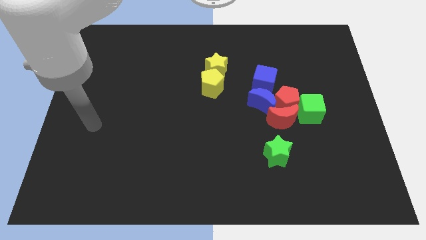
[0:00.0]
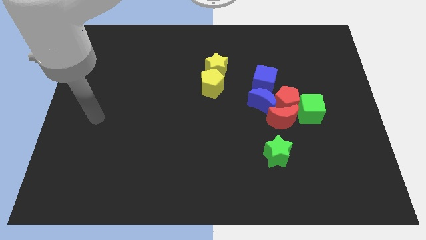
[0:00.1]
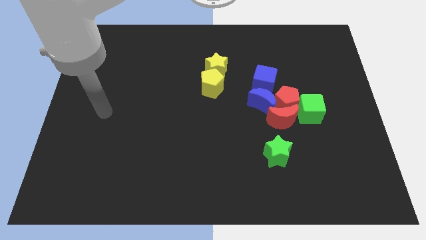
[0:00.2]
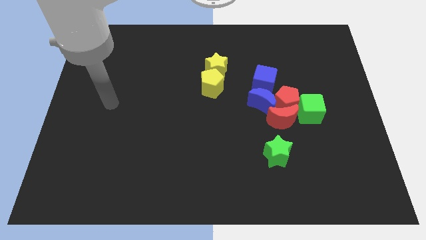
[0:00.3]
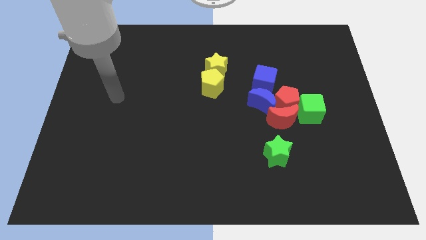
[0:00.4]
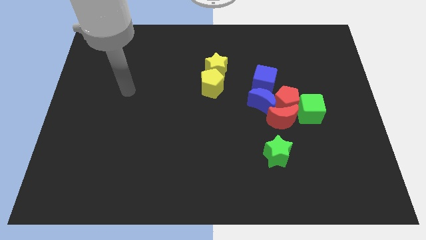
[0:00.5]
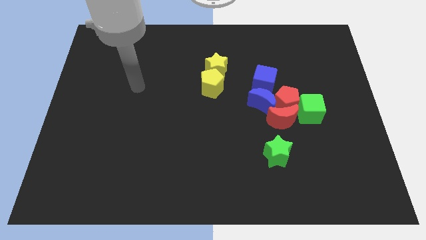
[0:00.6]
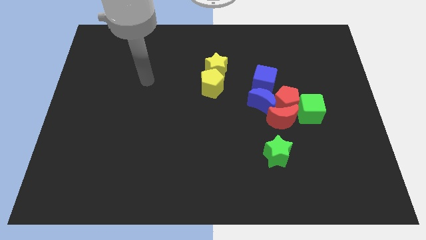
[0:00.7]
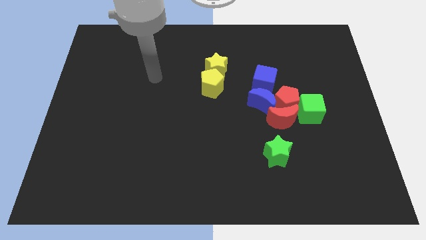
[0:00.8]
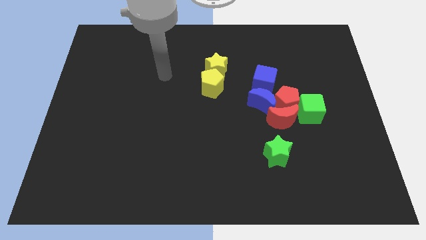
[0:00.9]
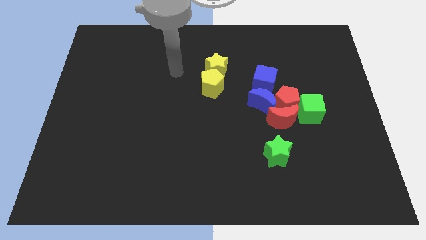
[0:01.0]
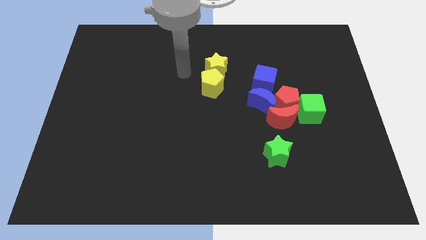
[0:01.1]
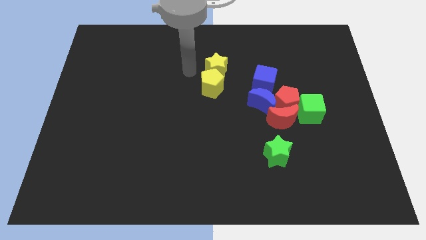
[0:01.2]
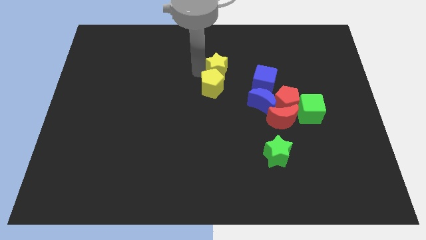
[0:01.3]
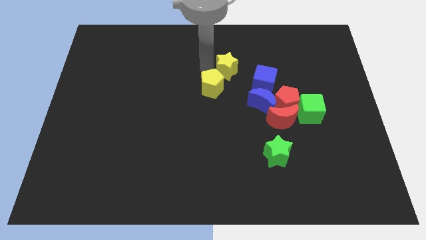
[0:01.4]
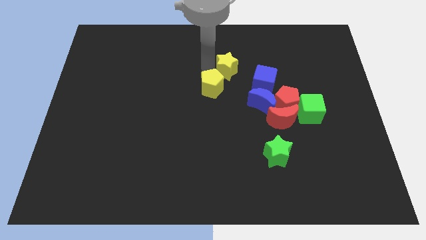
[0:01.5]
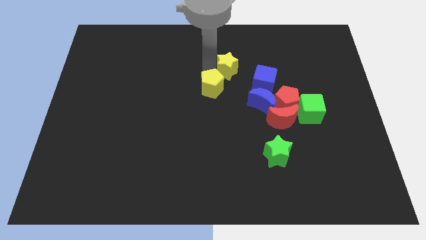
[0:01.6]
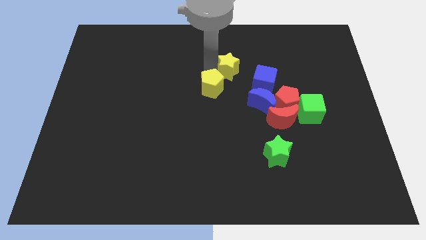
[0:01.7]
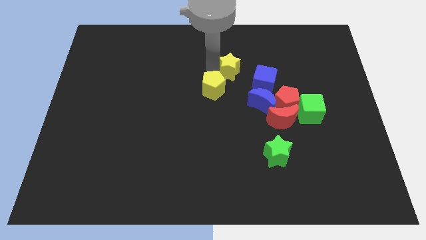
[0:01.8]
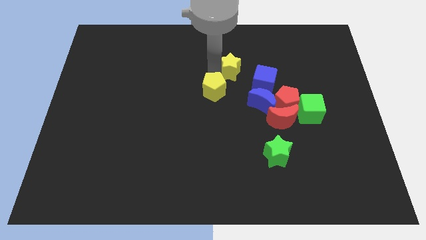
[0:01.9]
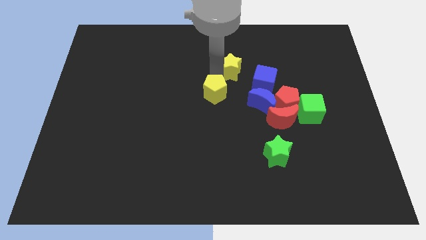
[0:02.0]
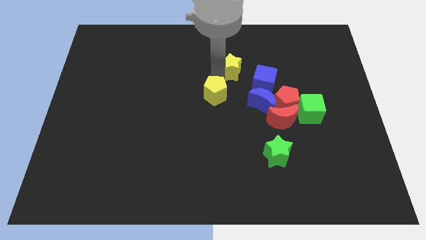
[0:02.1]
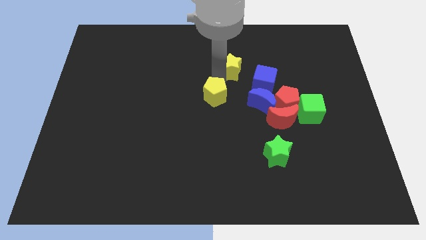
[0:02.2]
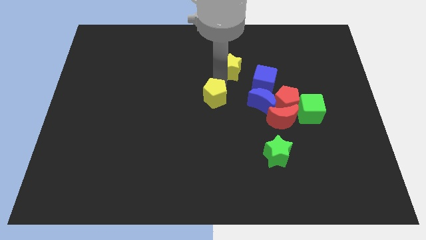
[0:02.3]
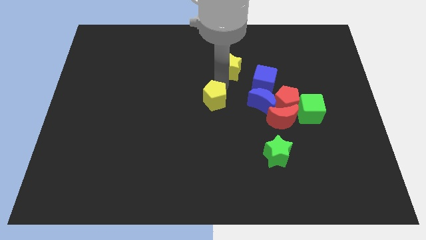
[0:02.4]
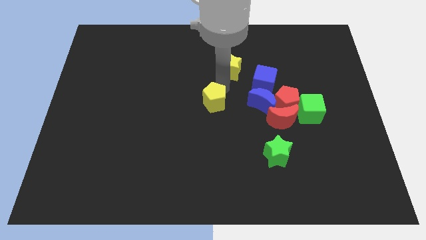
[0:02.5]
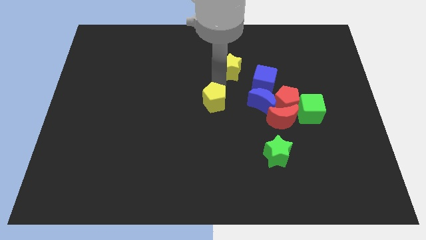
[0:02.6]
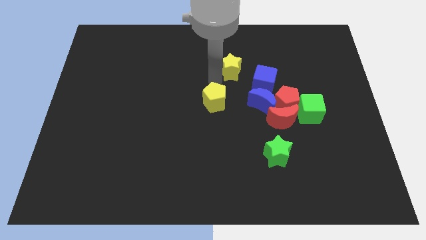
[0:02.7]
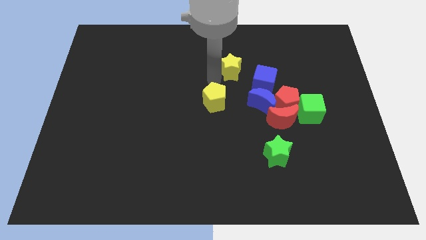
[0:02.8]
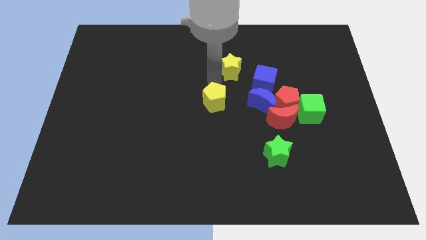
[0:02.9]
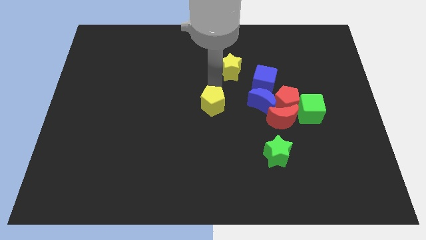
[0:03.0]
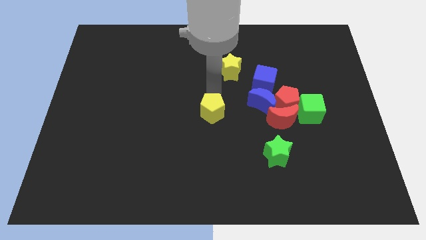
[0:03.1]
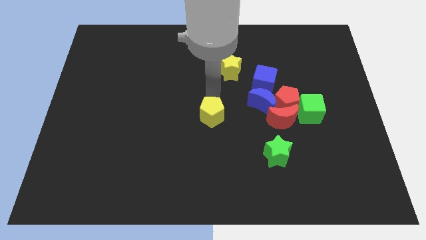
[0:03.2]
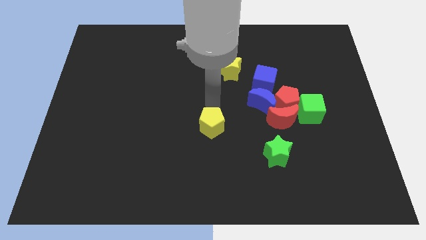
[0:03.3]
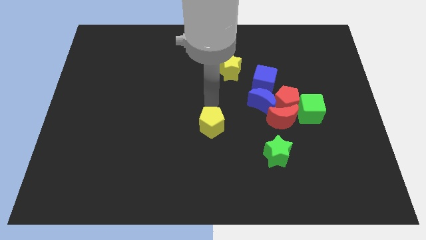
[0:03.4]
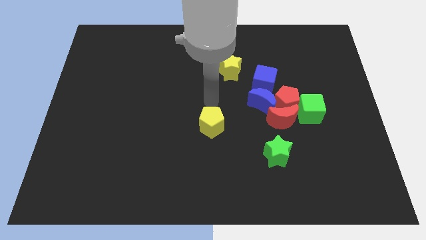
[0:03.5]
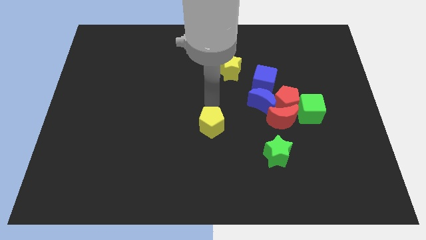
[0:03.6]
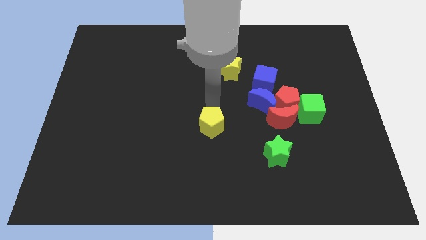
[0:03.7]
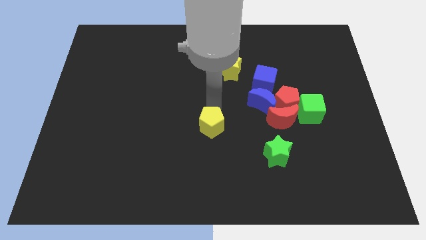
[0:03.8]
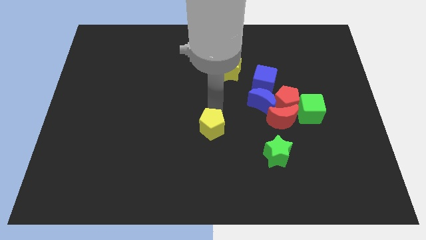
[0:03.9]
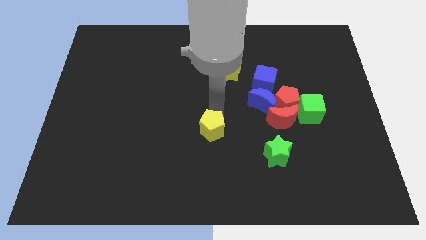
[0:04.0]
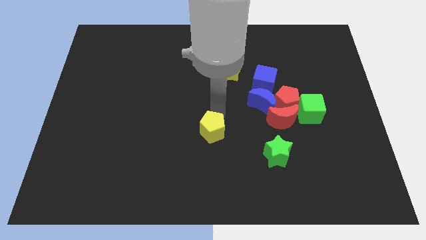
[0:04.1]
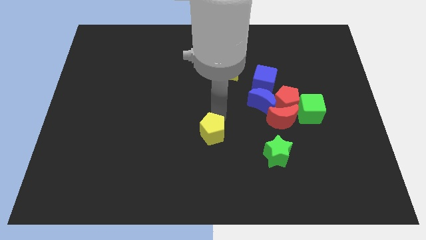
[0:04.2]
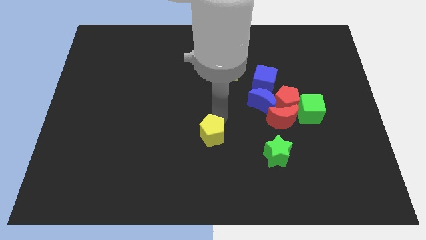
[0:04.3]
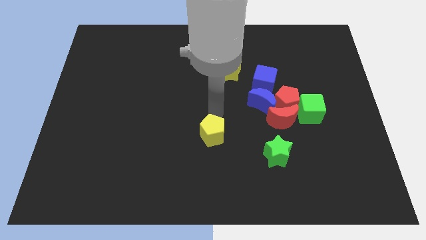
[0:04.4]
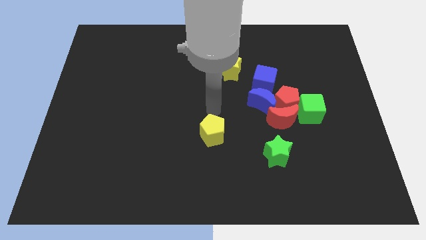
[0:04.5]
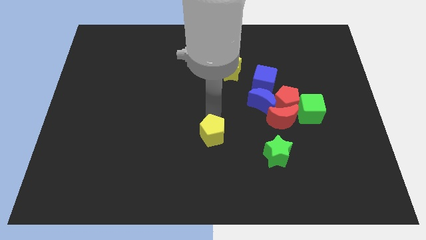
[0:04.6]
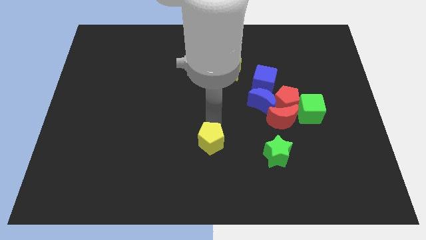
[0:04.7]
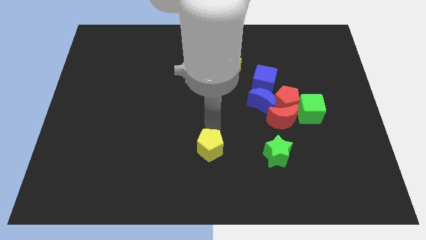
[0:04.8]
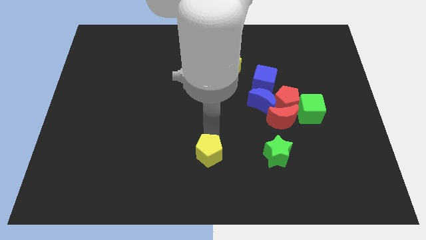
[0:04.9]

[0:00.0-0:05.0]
slide the yellow pentagon to the bottom side

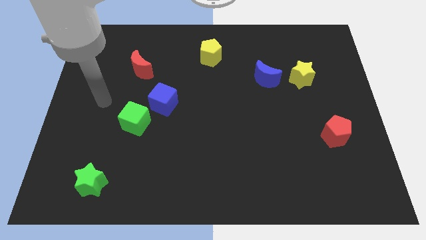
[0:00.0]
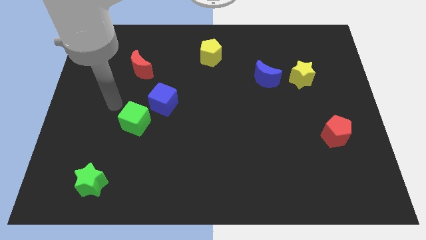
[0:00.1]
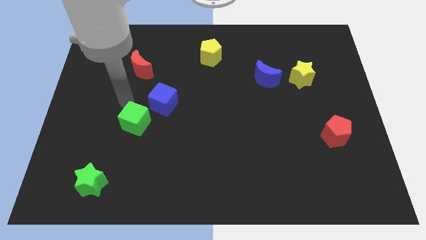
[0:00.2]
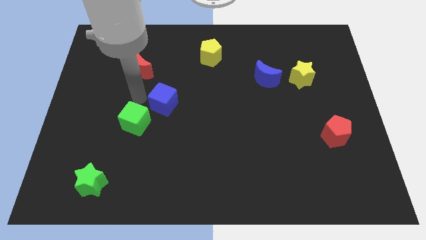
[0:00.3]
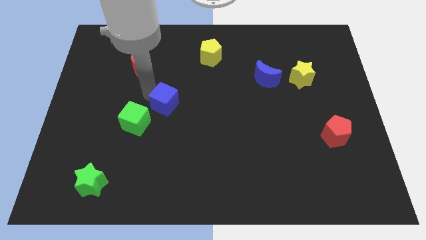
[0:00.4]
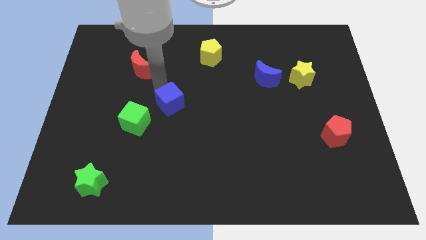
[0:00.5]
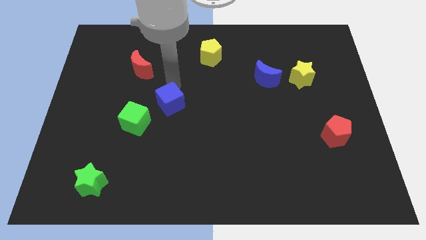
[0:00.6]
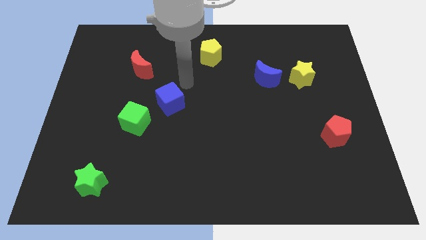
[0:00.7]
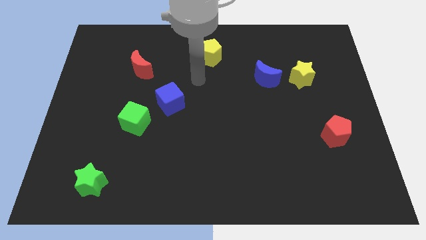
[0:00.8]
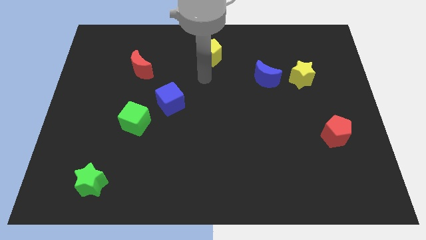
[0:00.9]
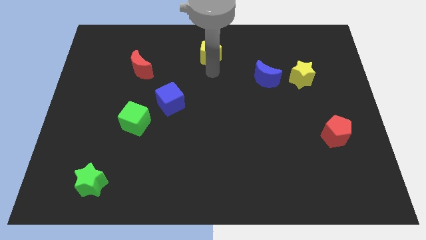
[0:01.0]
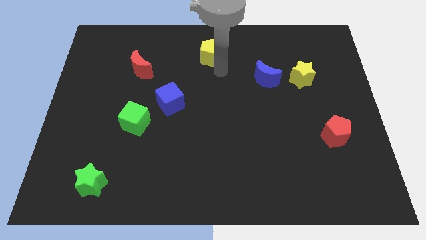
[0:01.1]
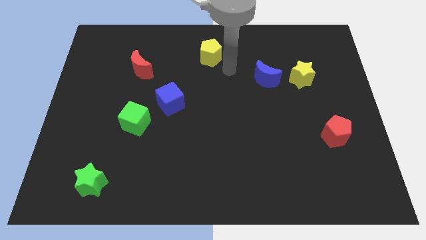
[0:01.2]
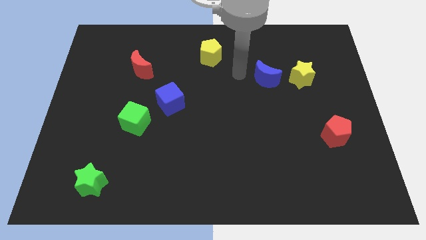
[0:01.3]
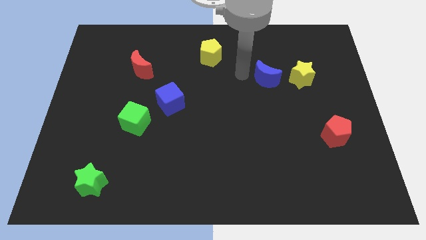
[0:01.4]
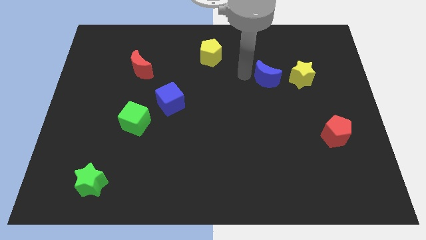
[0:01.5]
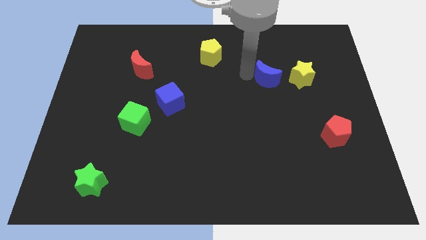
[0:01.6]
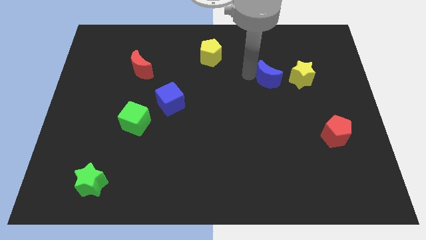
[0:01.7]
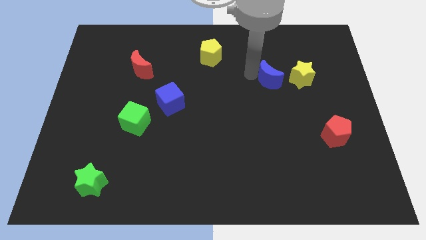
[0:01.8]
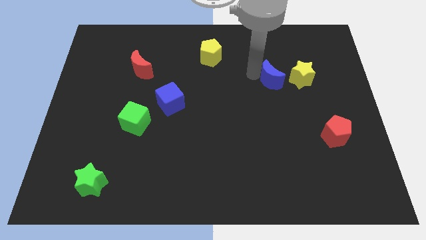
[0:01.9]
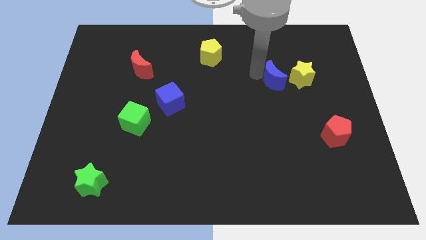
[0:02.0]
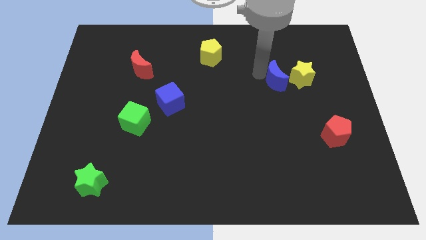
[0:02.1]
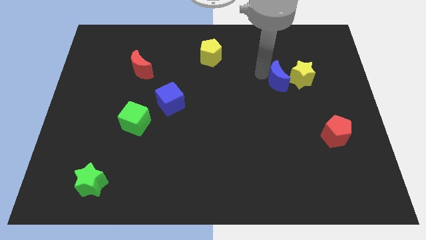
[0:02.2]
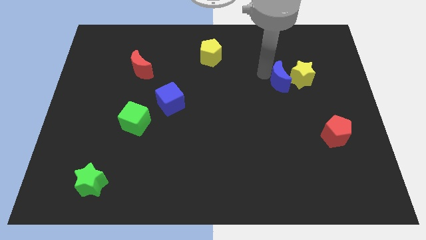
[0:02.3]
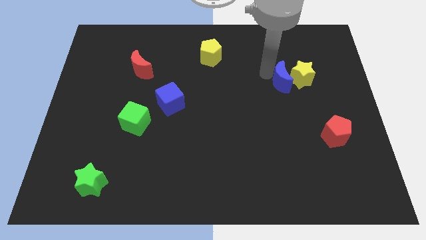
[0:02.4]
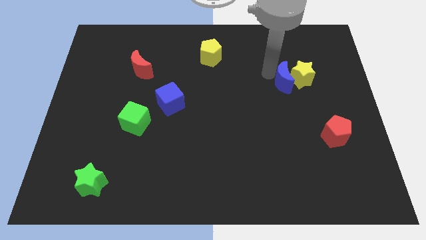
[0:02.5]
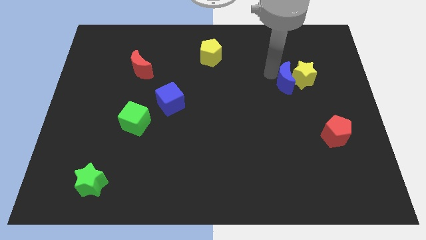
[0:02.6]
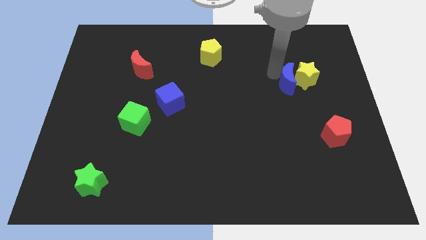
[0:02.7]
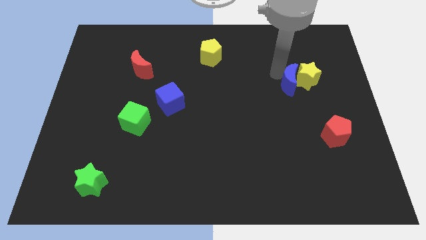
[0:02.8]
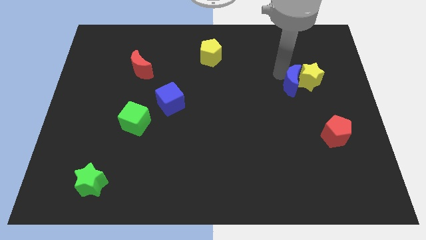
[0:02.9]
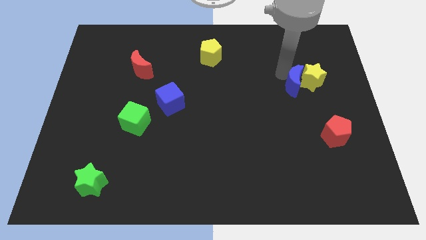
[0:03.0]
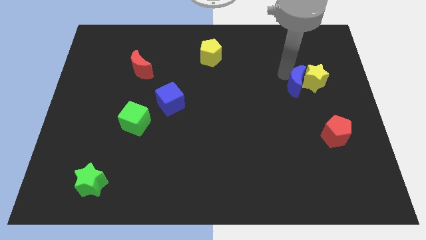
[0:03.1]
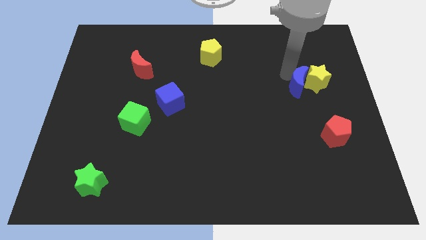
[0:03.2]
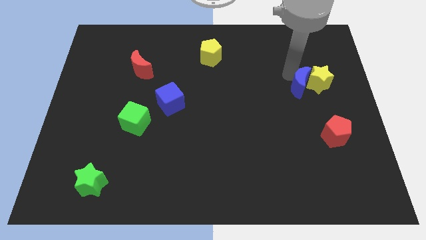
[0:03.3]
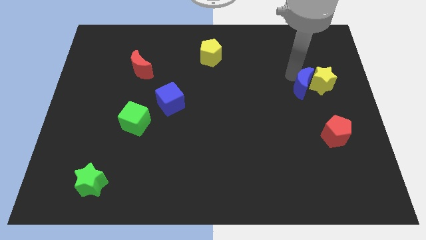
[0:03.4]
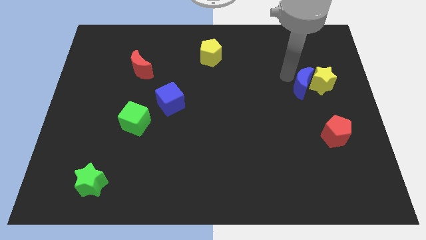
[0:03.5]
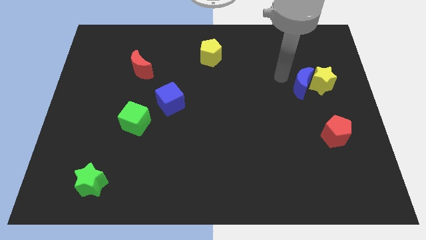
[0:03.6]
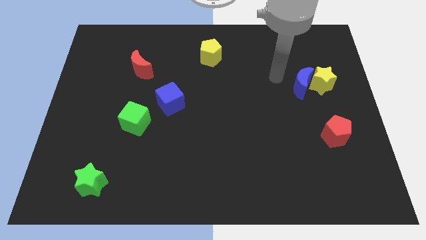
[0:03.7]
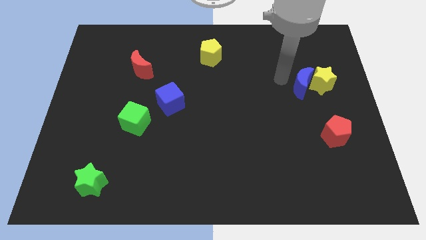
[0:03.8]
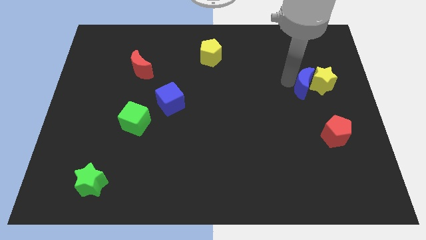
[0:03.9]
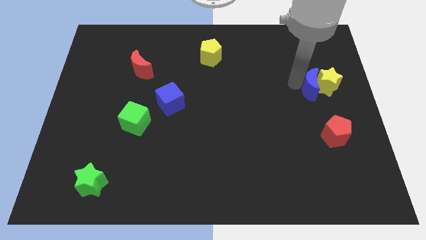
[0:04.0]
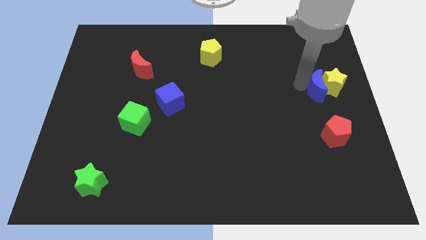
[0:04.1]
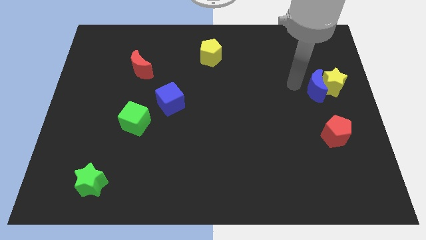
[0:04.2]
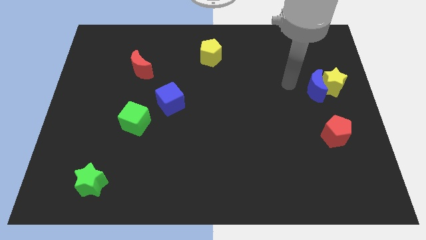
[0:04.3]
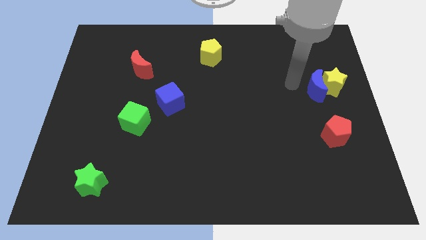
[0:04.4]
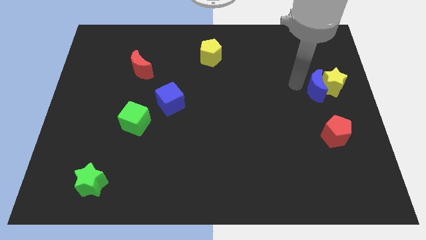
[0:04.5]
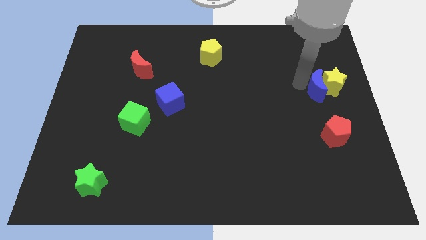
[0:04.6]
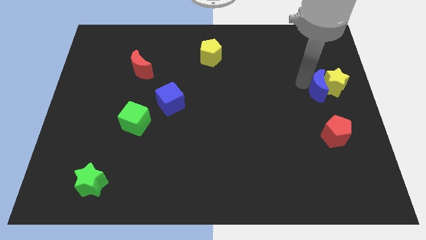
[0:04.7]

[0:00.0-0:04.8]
move the blue moon to the right side
